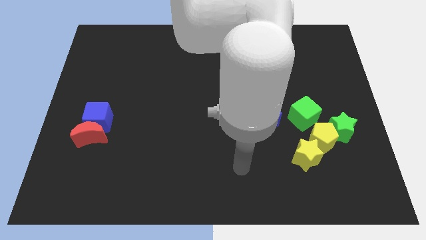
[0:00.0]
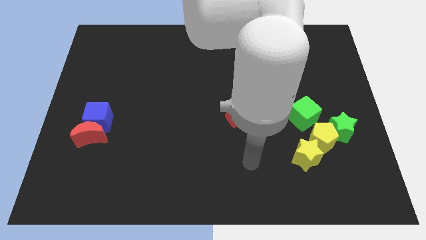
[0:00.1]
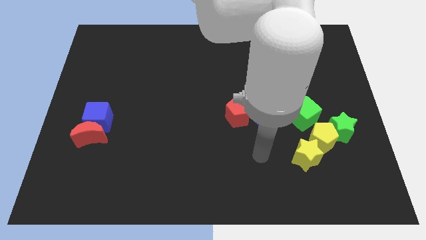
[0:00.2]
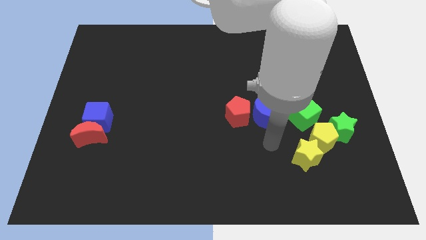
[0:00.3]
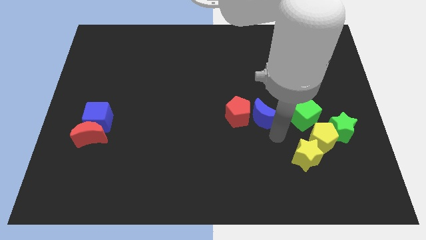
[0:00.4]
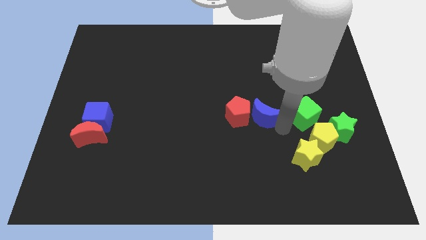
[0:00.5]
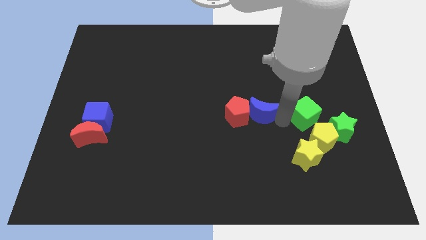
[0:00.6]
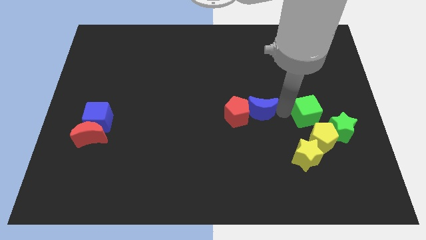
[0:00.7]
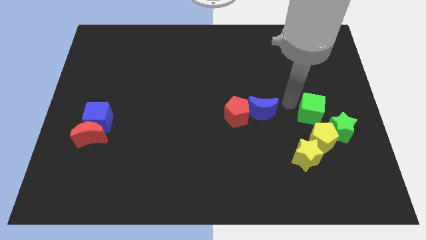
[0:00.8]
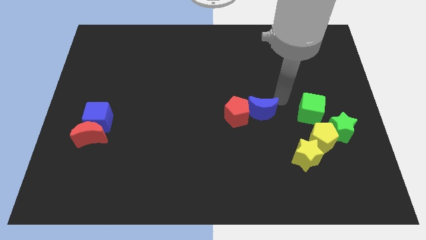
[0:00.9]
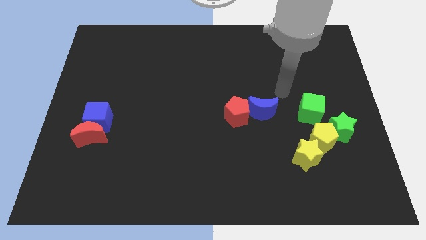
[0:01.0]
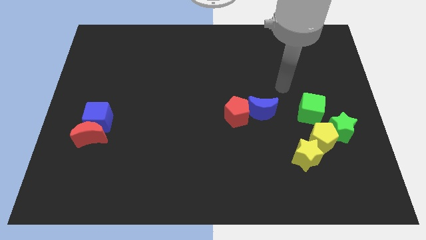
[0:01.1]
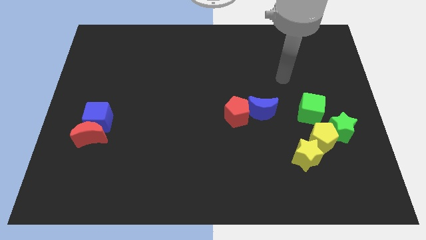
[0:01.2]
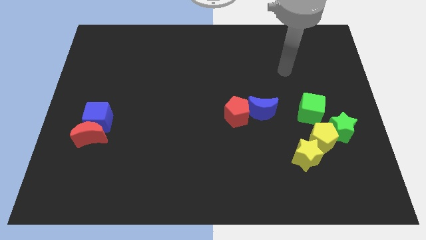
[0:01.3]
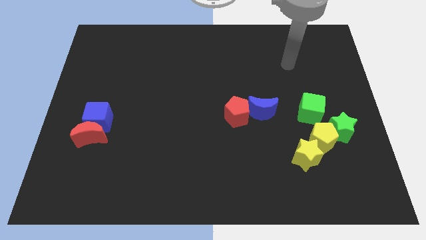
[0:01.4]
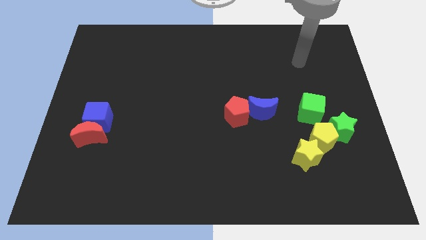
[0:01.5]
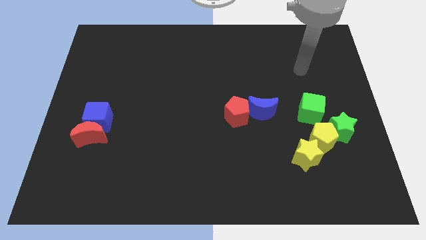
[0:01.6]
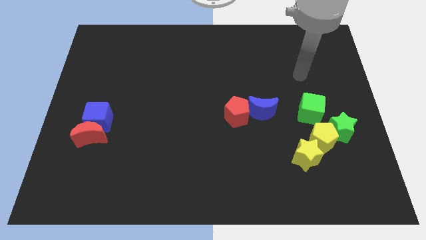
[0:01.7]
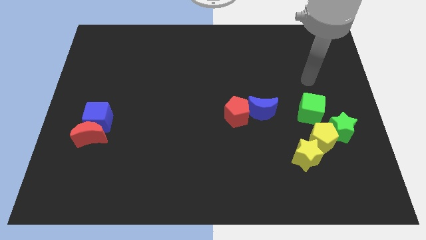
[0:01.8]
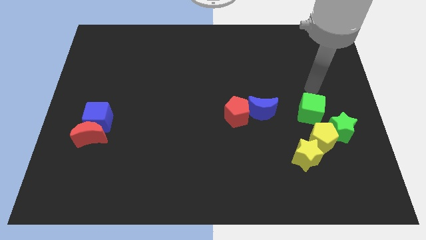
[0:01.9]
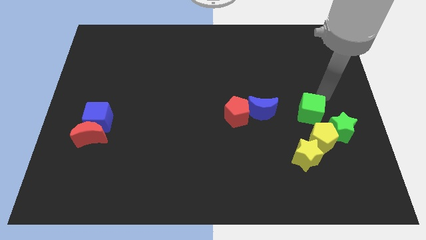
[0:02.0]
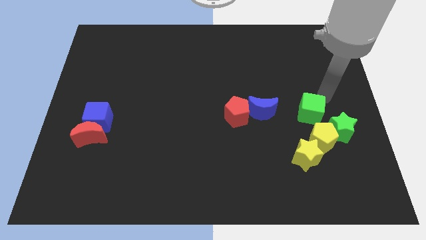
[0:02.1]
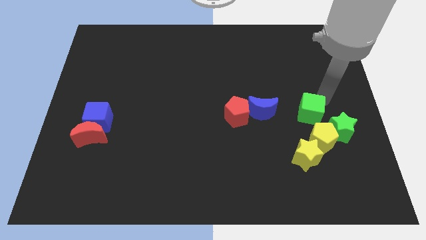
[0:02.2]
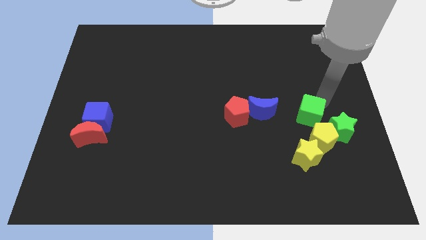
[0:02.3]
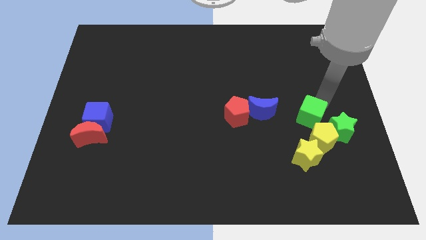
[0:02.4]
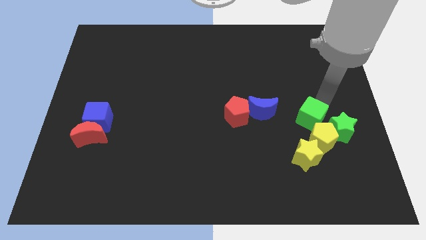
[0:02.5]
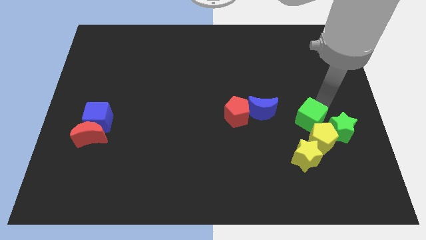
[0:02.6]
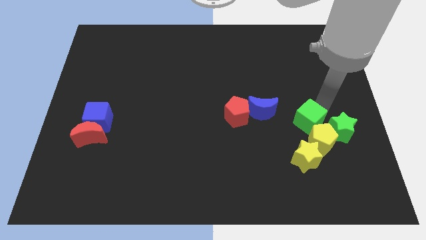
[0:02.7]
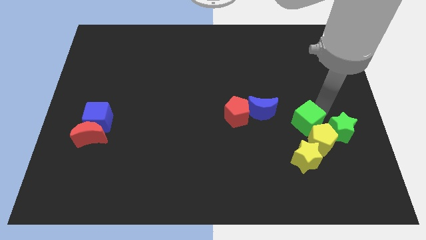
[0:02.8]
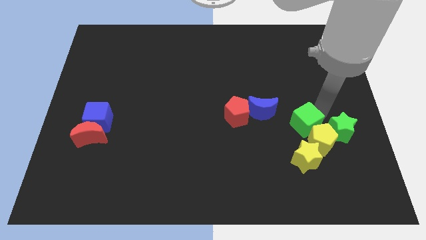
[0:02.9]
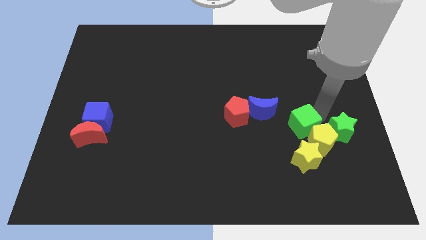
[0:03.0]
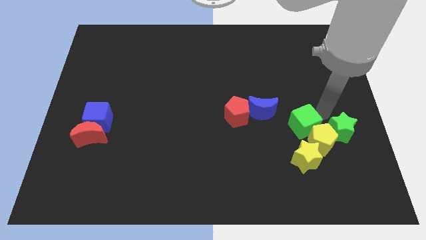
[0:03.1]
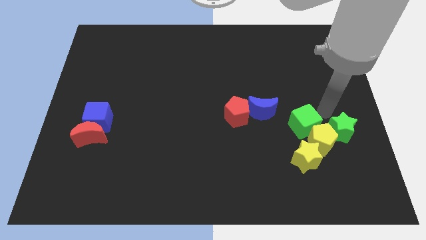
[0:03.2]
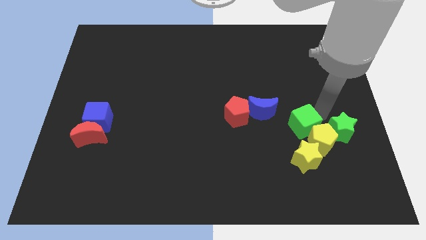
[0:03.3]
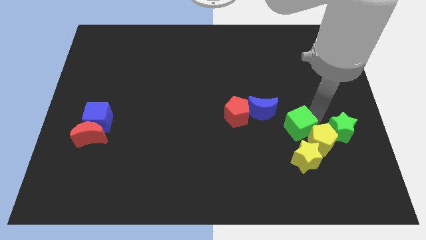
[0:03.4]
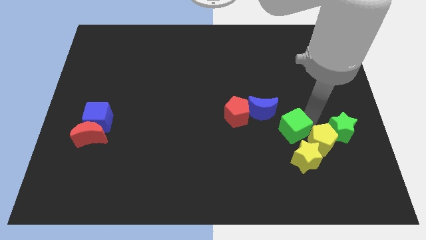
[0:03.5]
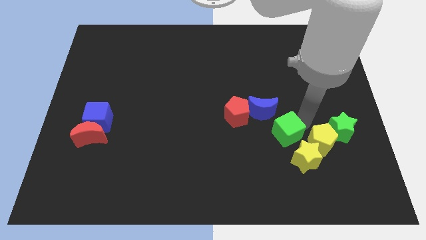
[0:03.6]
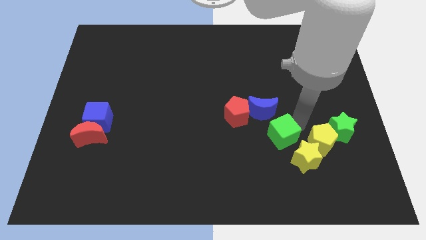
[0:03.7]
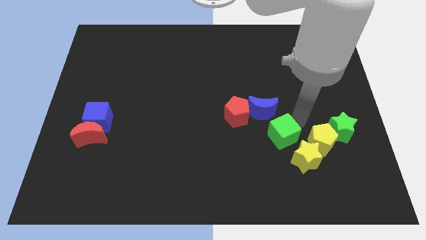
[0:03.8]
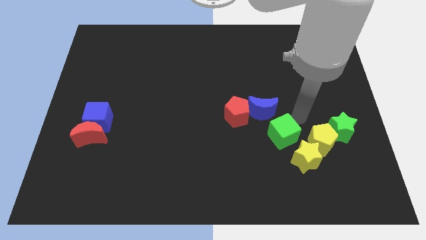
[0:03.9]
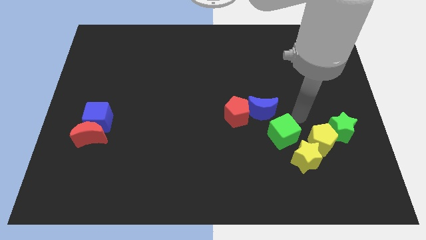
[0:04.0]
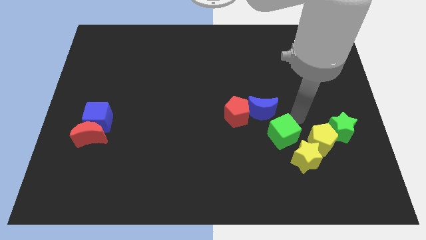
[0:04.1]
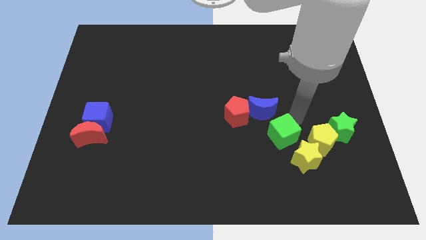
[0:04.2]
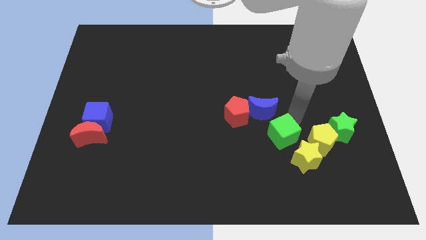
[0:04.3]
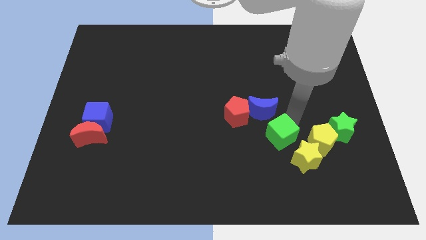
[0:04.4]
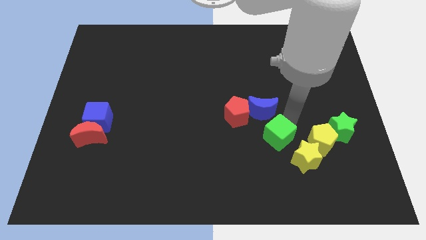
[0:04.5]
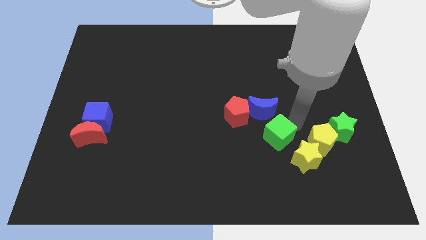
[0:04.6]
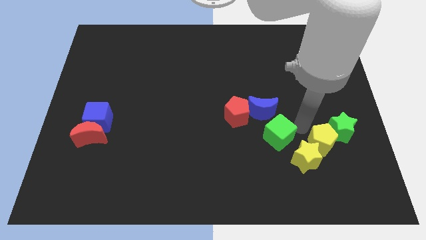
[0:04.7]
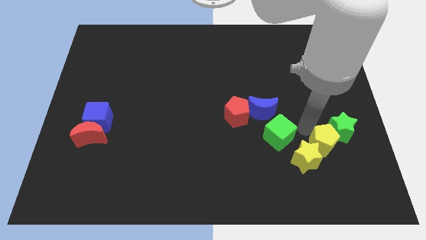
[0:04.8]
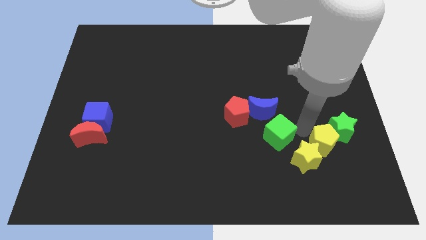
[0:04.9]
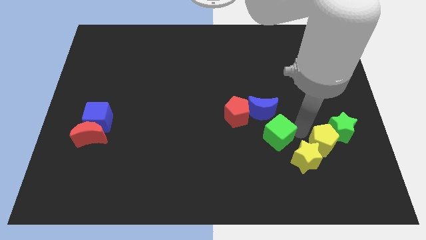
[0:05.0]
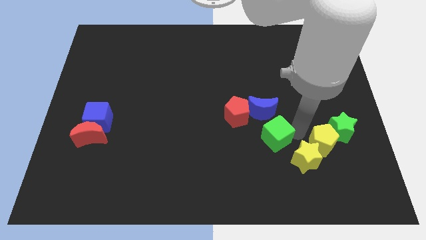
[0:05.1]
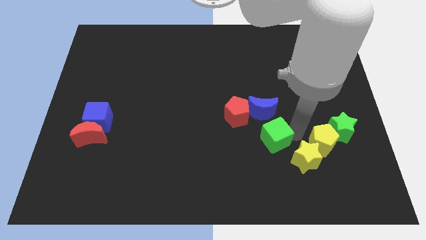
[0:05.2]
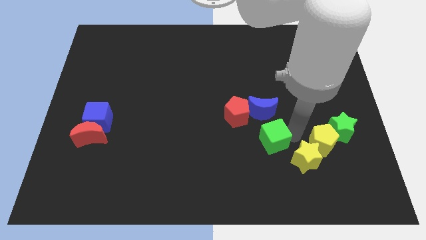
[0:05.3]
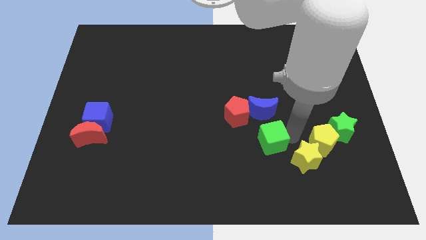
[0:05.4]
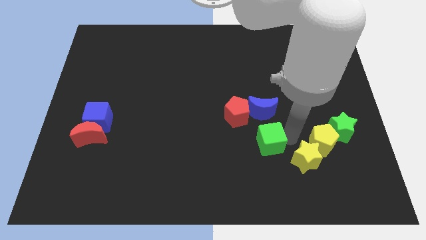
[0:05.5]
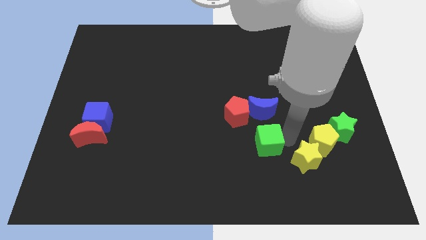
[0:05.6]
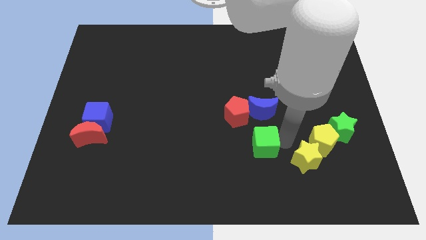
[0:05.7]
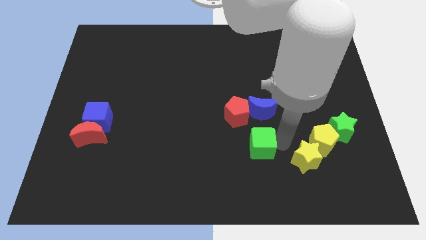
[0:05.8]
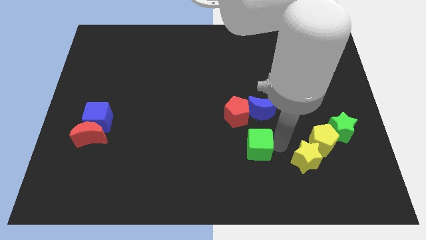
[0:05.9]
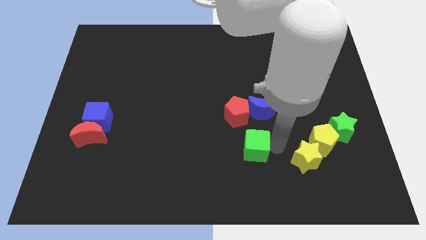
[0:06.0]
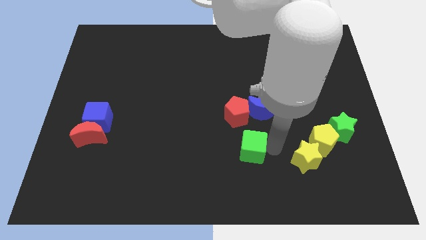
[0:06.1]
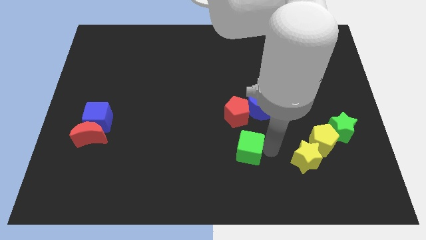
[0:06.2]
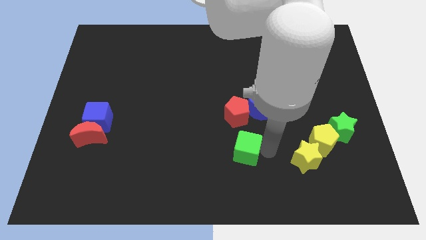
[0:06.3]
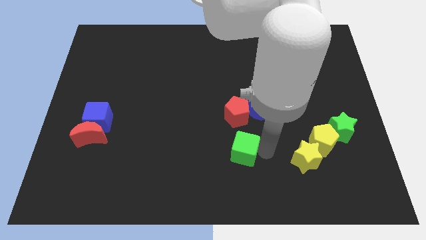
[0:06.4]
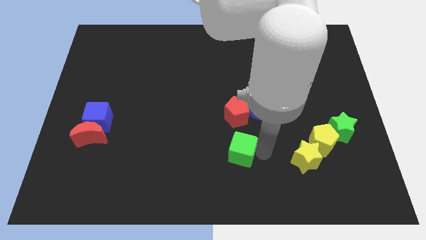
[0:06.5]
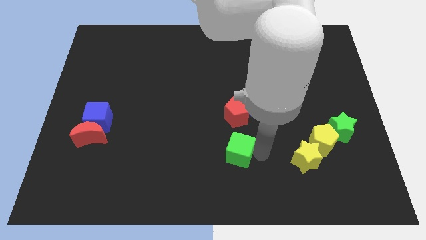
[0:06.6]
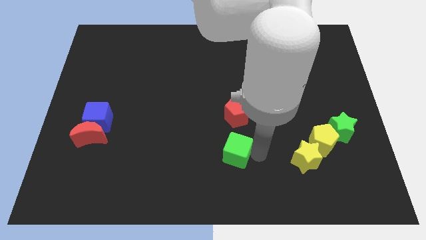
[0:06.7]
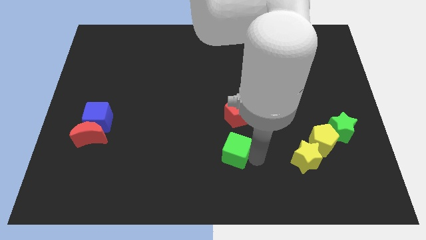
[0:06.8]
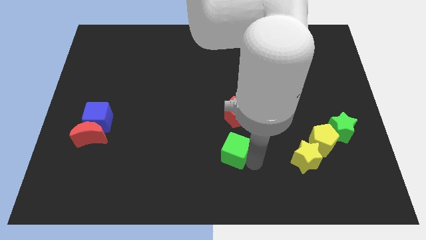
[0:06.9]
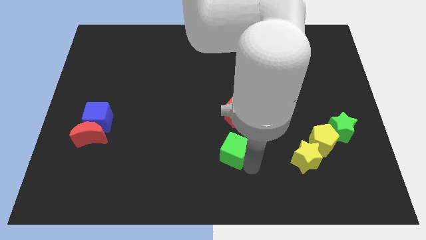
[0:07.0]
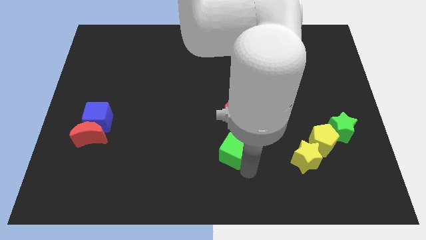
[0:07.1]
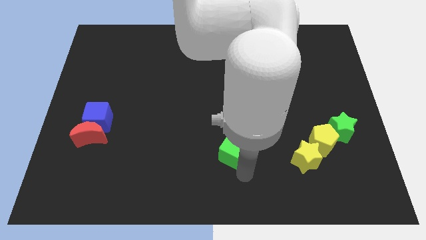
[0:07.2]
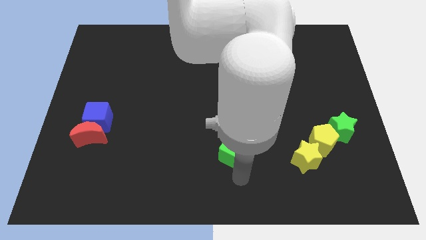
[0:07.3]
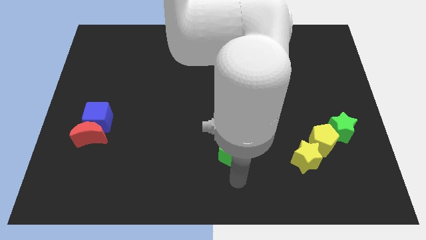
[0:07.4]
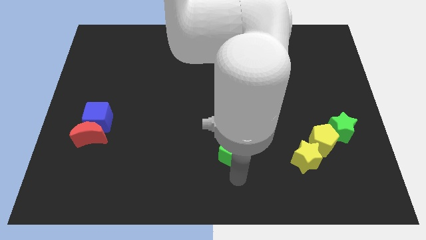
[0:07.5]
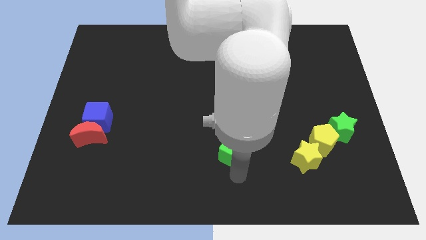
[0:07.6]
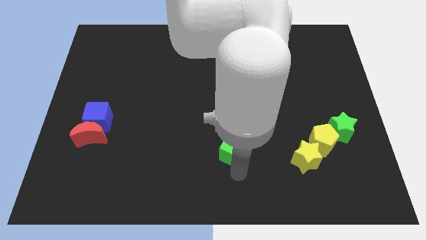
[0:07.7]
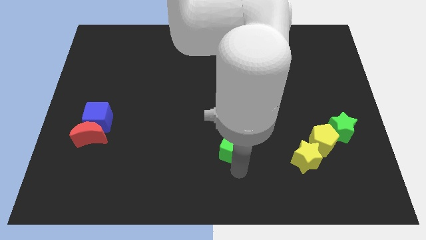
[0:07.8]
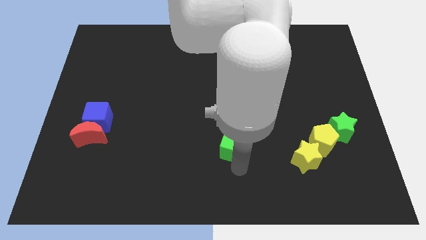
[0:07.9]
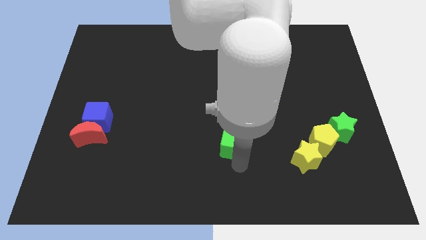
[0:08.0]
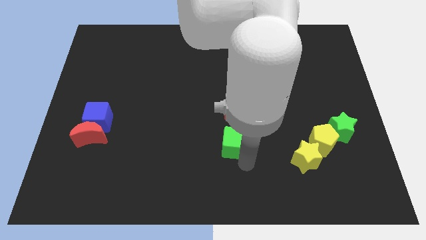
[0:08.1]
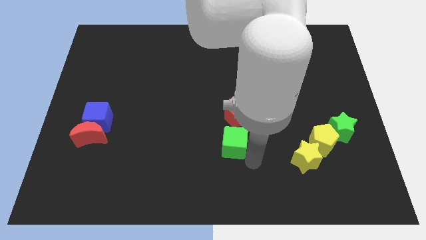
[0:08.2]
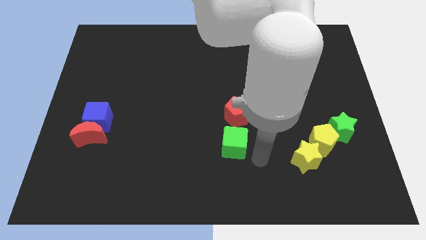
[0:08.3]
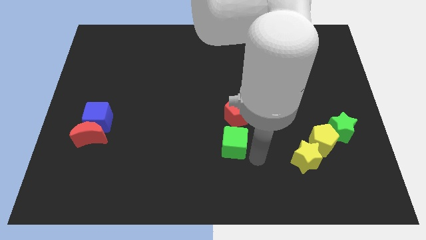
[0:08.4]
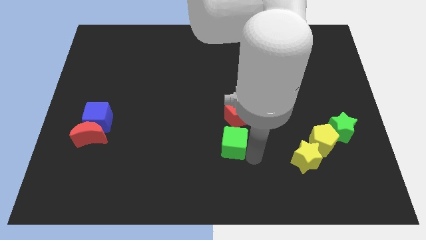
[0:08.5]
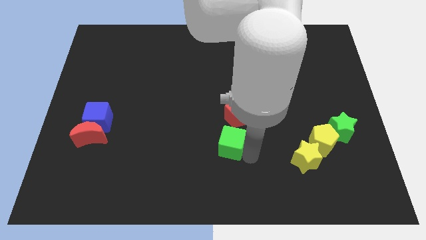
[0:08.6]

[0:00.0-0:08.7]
push the green cube to the bottom left side of the red pentagon
